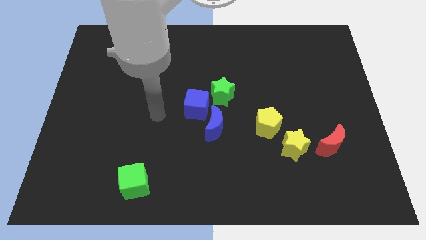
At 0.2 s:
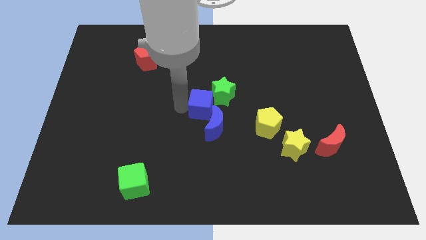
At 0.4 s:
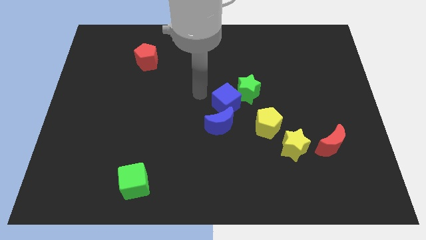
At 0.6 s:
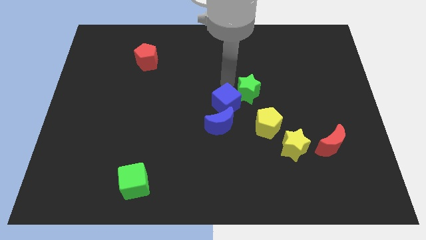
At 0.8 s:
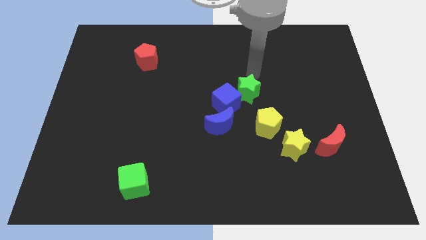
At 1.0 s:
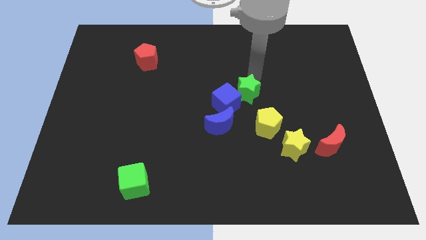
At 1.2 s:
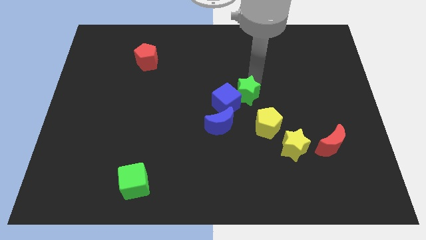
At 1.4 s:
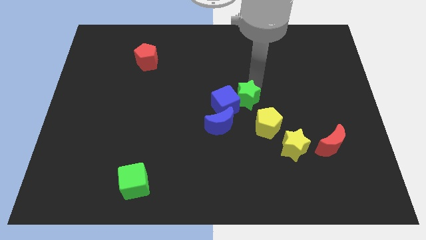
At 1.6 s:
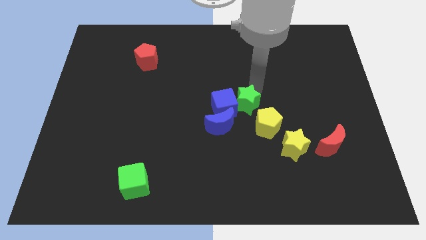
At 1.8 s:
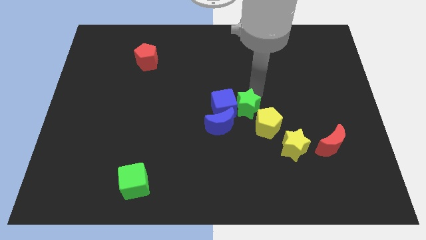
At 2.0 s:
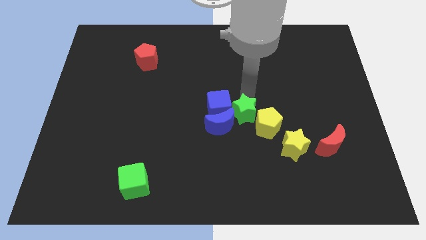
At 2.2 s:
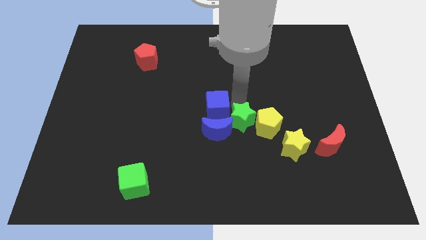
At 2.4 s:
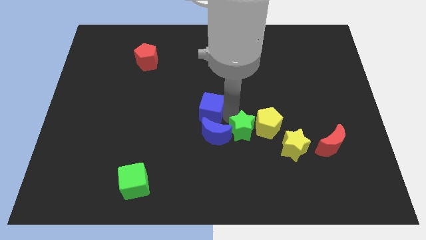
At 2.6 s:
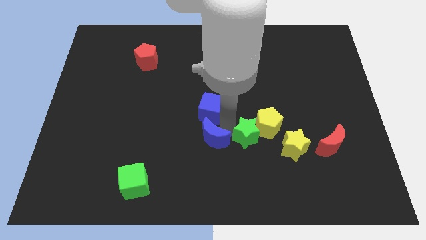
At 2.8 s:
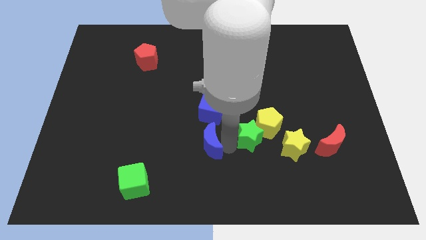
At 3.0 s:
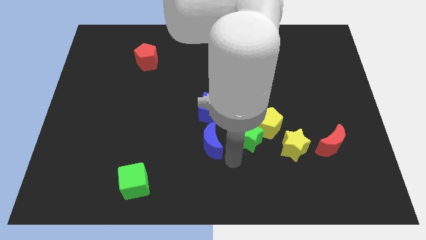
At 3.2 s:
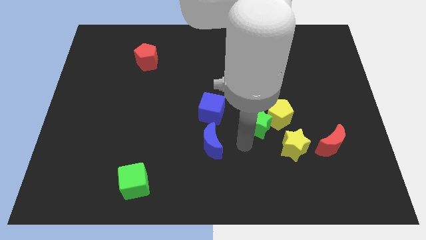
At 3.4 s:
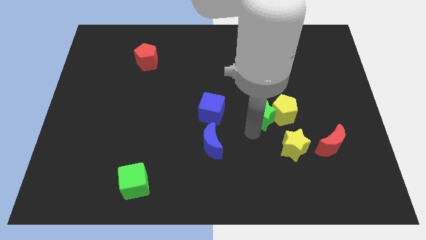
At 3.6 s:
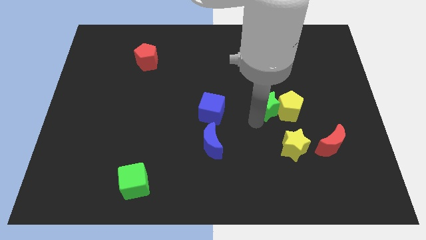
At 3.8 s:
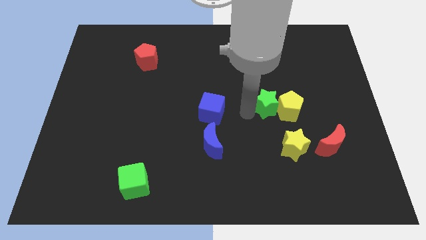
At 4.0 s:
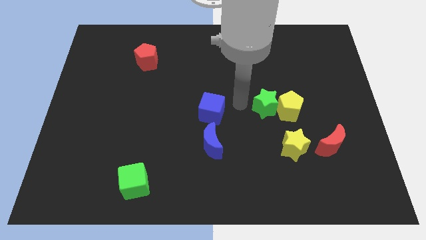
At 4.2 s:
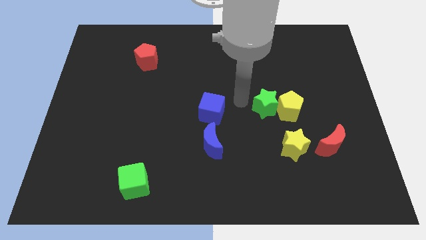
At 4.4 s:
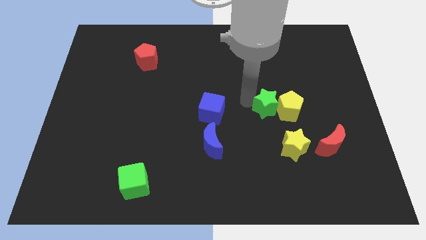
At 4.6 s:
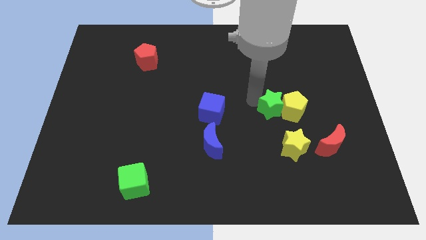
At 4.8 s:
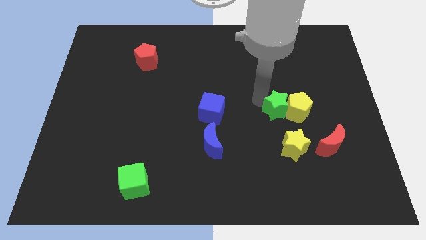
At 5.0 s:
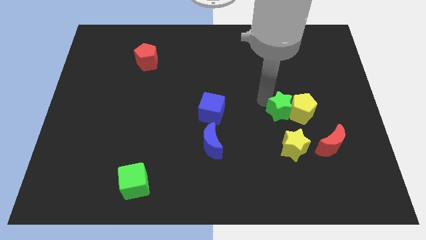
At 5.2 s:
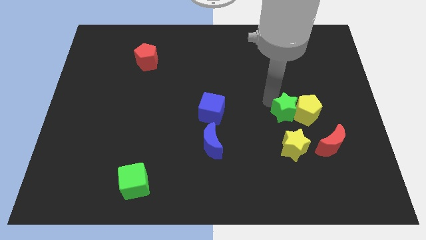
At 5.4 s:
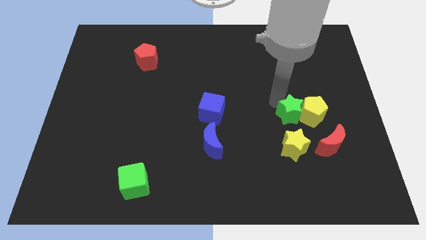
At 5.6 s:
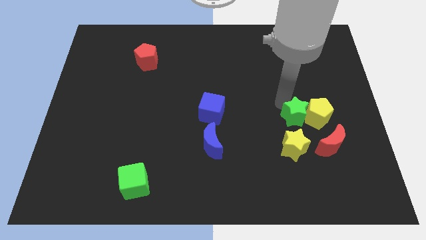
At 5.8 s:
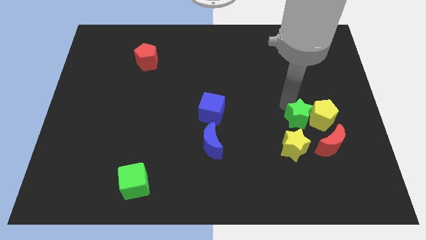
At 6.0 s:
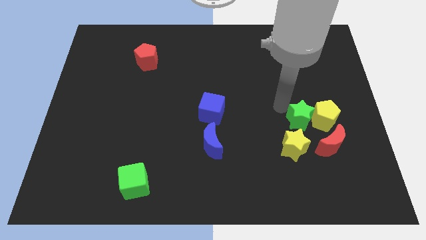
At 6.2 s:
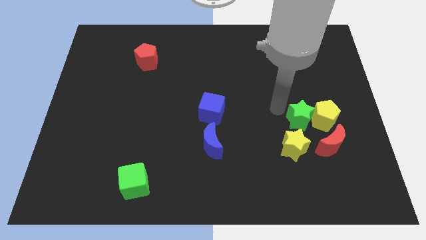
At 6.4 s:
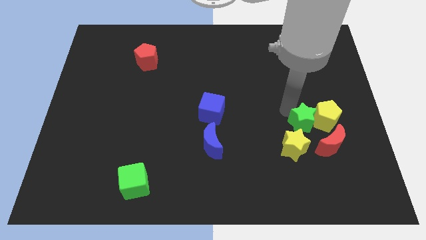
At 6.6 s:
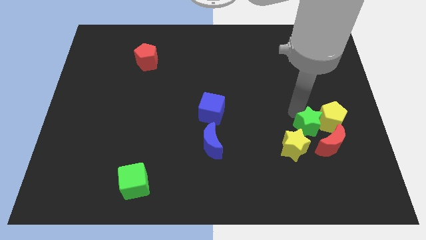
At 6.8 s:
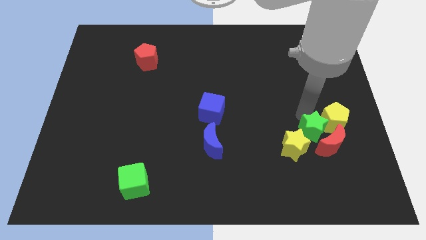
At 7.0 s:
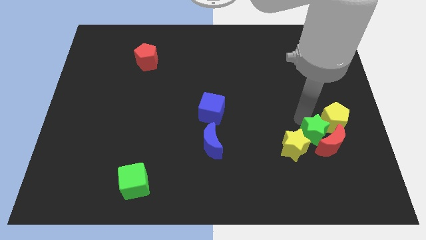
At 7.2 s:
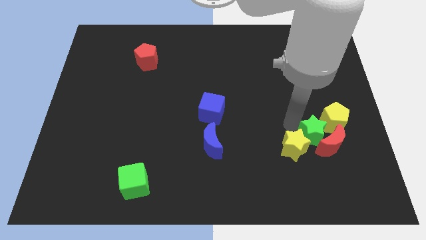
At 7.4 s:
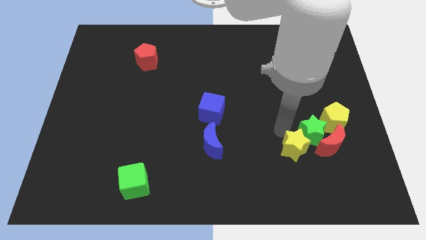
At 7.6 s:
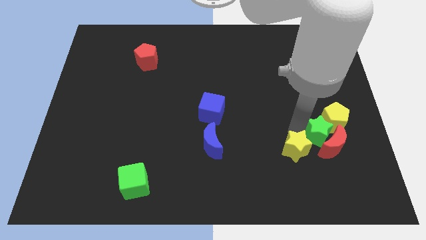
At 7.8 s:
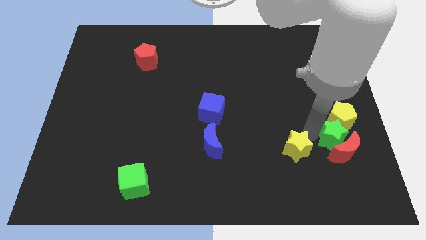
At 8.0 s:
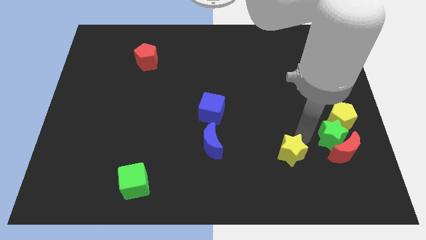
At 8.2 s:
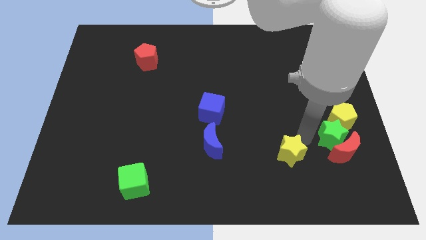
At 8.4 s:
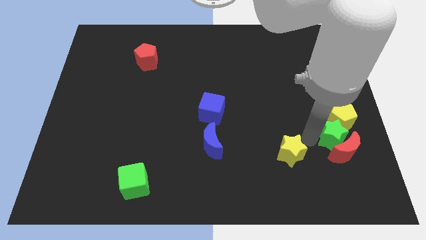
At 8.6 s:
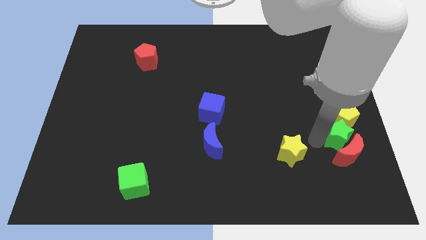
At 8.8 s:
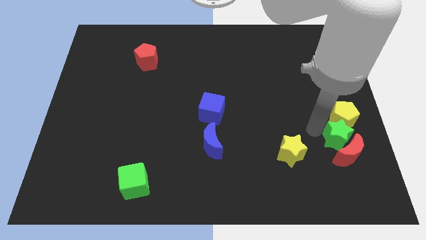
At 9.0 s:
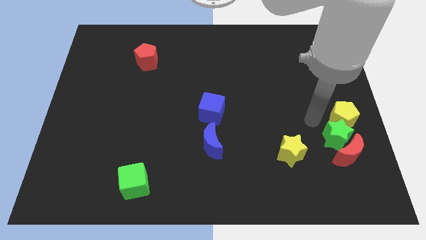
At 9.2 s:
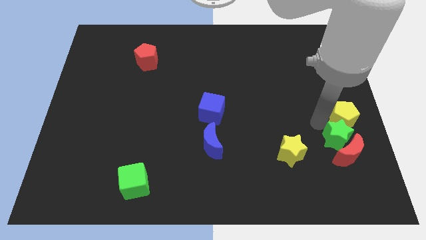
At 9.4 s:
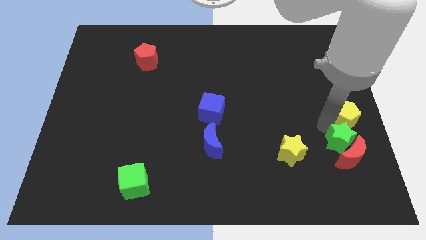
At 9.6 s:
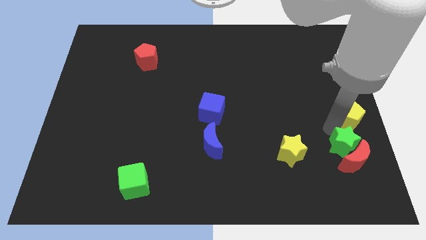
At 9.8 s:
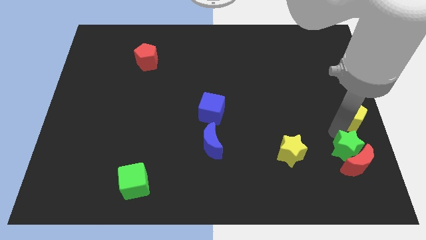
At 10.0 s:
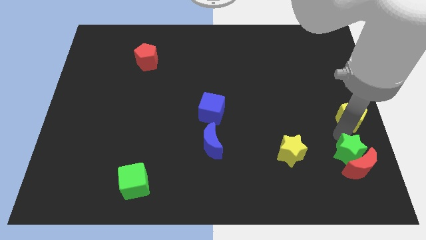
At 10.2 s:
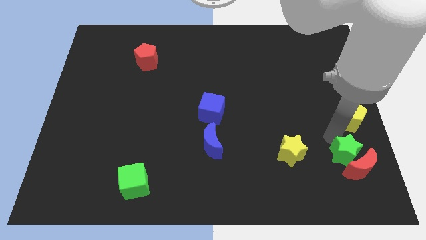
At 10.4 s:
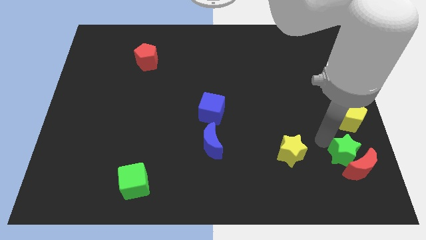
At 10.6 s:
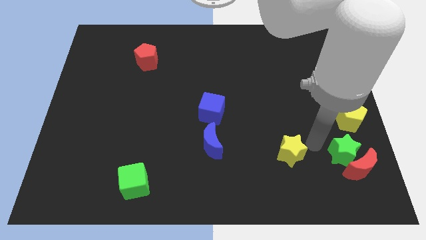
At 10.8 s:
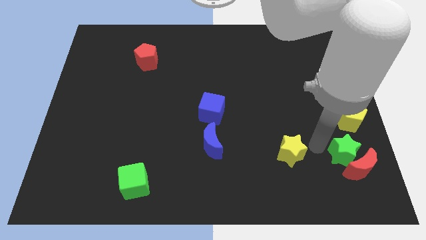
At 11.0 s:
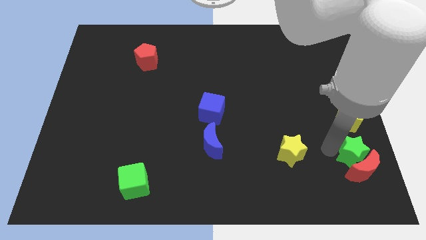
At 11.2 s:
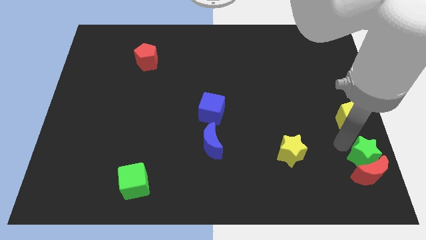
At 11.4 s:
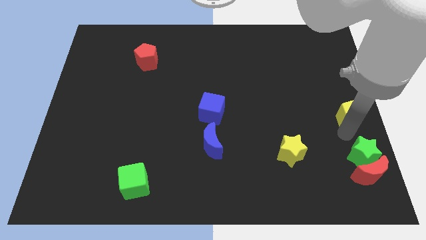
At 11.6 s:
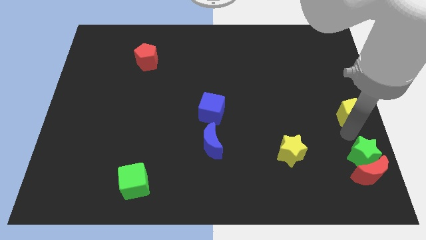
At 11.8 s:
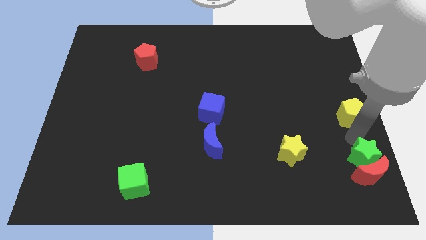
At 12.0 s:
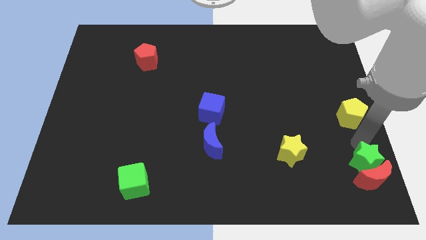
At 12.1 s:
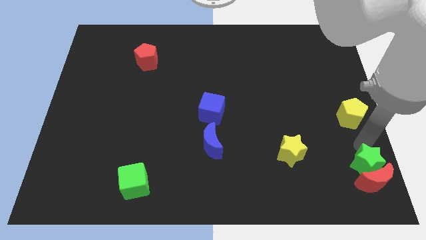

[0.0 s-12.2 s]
push the green star to the bottom right of the board

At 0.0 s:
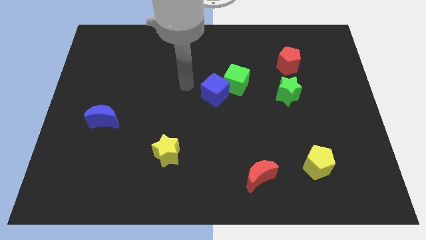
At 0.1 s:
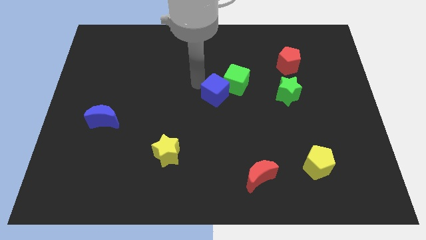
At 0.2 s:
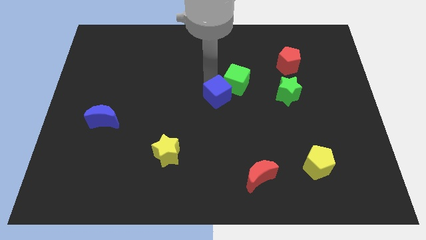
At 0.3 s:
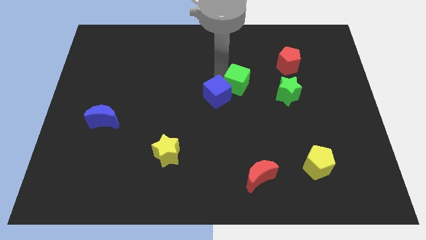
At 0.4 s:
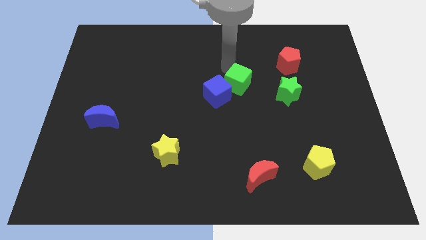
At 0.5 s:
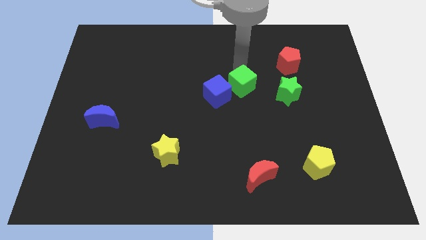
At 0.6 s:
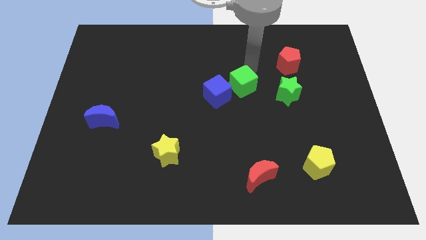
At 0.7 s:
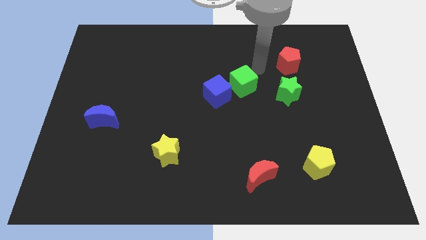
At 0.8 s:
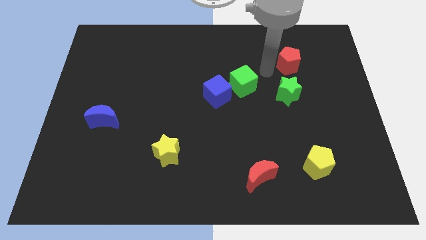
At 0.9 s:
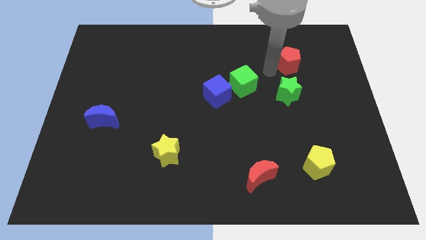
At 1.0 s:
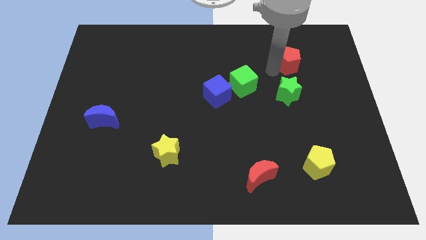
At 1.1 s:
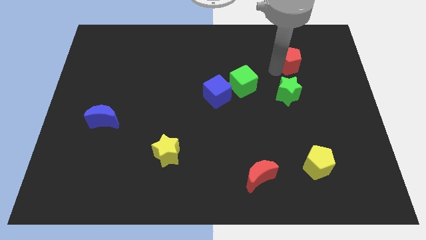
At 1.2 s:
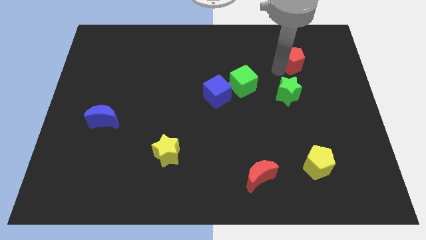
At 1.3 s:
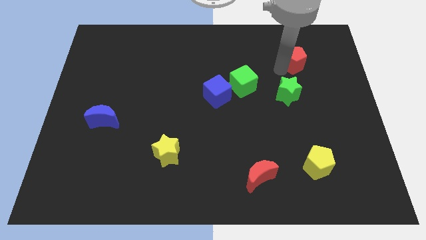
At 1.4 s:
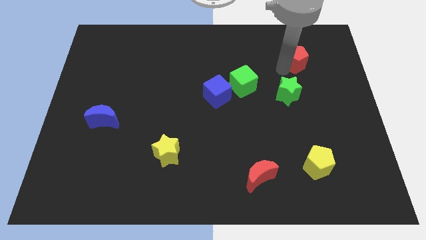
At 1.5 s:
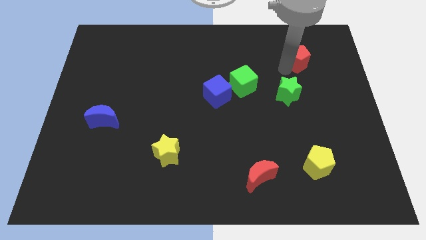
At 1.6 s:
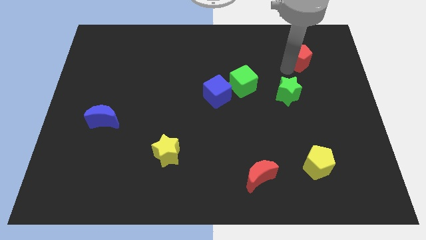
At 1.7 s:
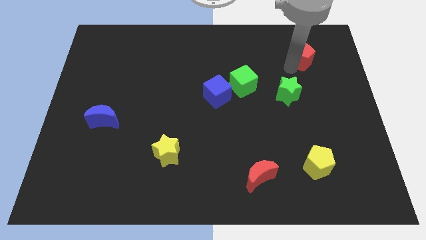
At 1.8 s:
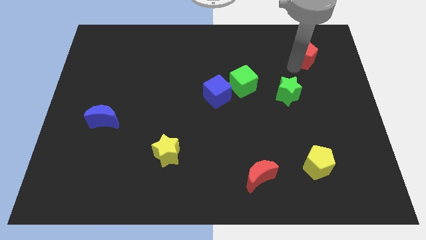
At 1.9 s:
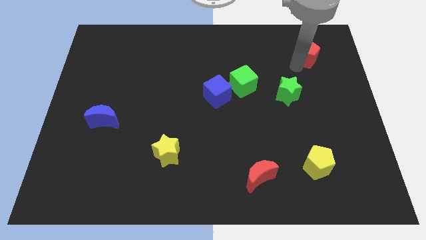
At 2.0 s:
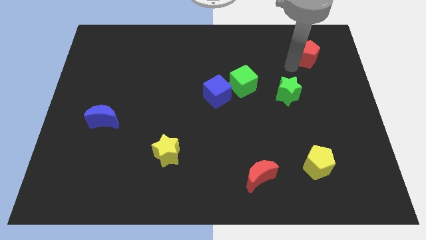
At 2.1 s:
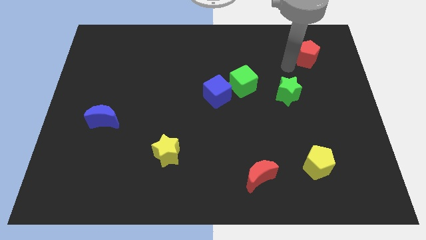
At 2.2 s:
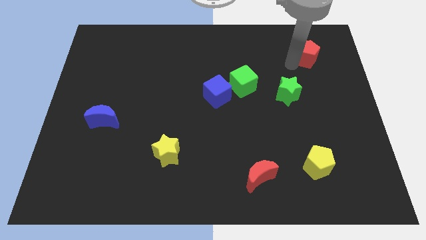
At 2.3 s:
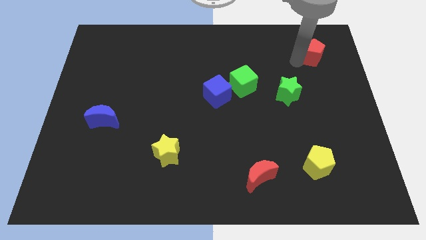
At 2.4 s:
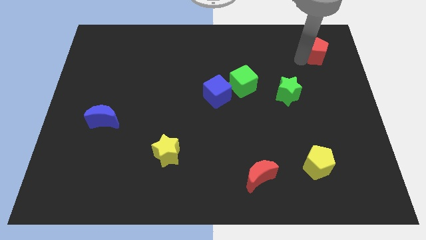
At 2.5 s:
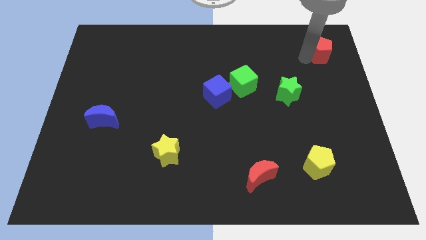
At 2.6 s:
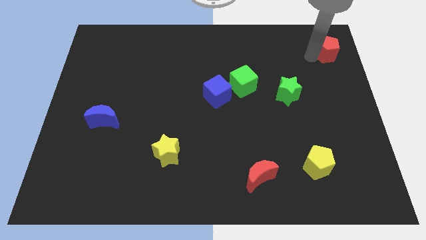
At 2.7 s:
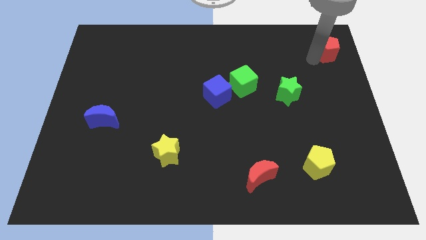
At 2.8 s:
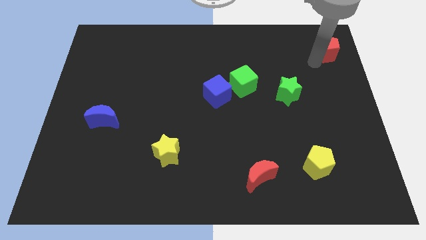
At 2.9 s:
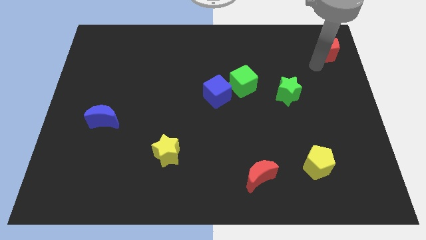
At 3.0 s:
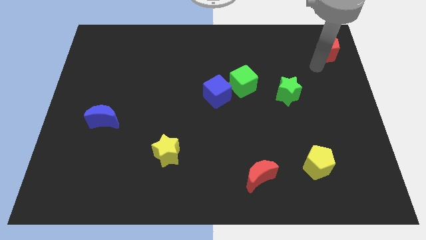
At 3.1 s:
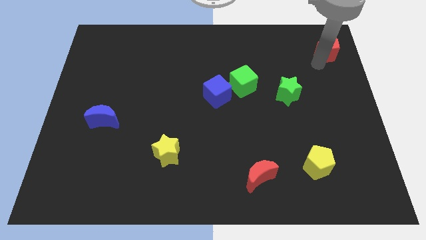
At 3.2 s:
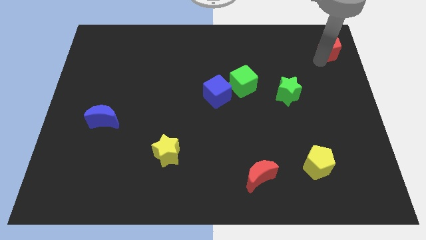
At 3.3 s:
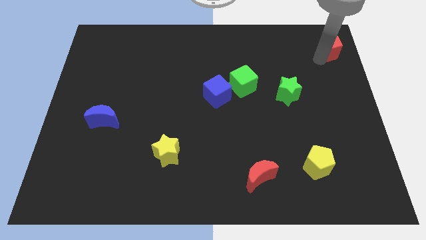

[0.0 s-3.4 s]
put the red pentagon to the upper right corner
